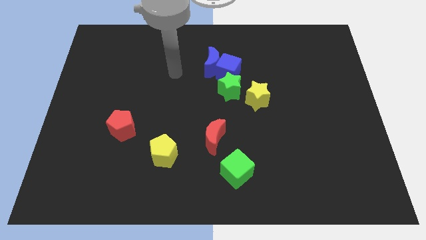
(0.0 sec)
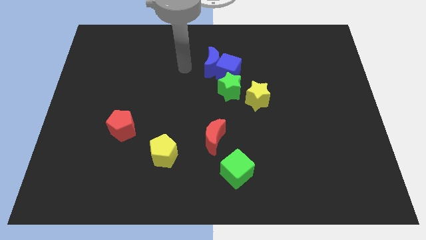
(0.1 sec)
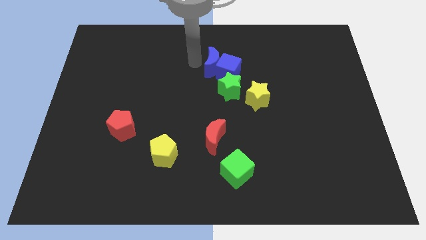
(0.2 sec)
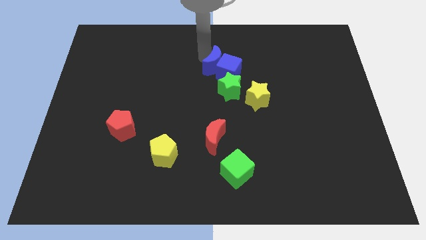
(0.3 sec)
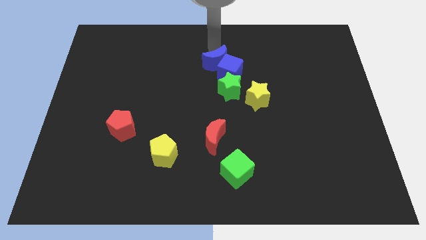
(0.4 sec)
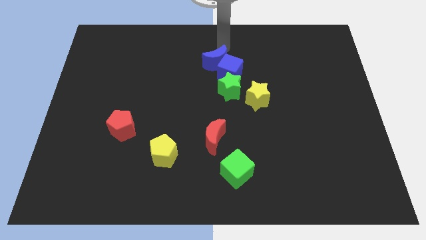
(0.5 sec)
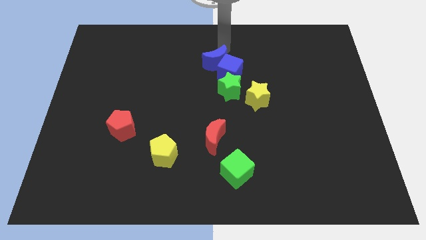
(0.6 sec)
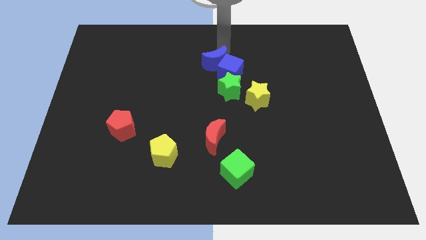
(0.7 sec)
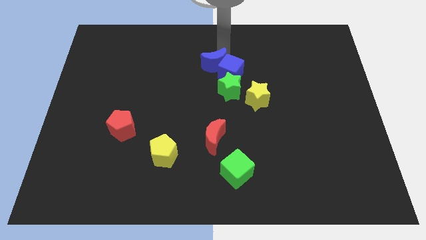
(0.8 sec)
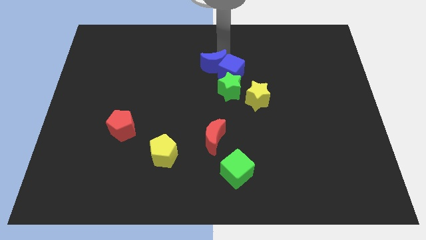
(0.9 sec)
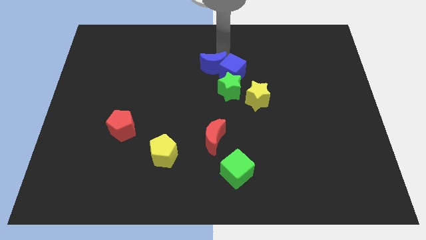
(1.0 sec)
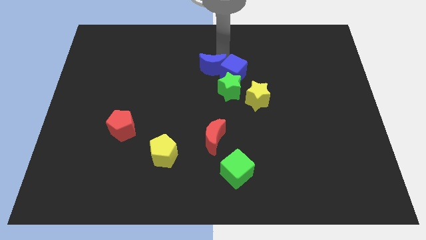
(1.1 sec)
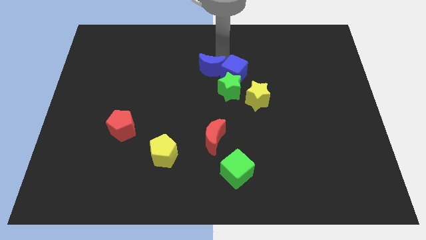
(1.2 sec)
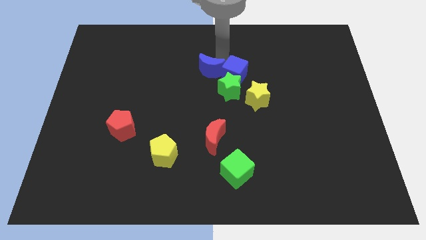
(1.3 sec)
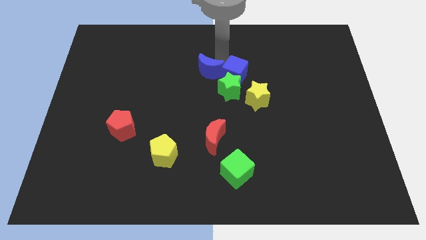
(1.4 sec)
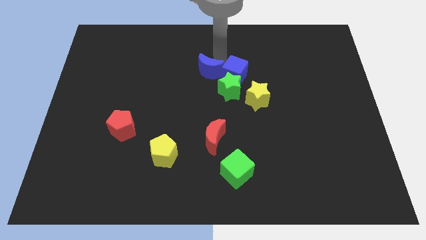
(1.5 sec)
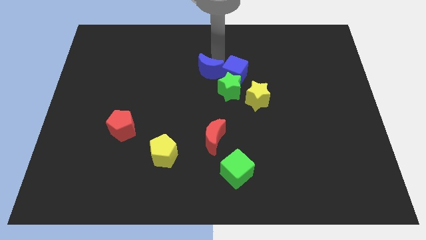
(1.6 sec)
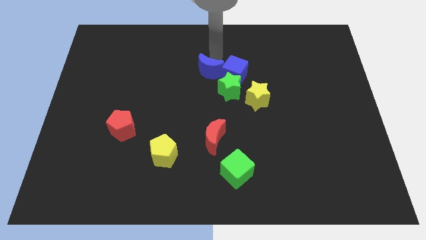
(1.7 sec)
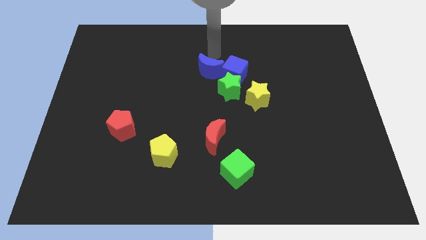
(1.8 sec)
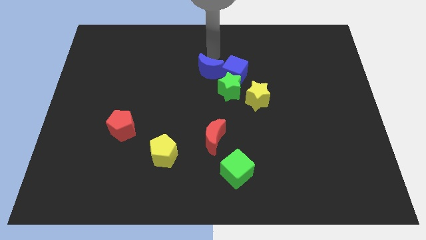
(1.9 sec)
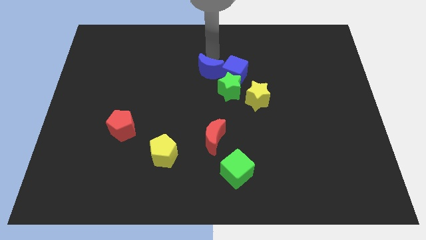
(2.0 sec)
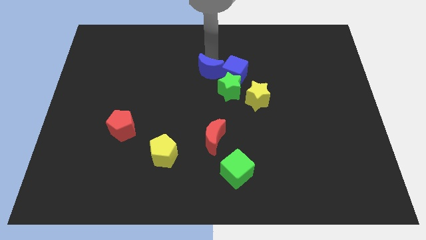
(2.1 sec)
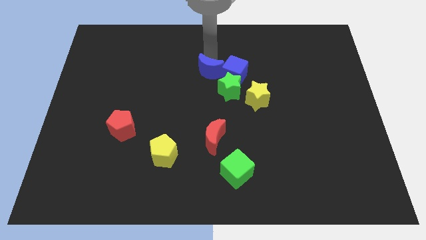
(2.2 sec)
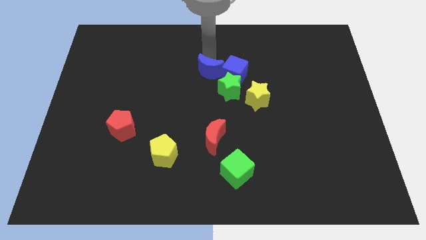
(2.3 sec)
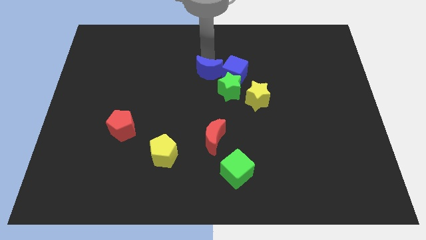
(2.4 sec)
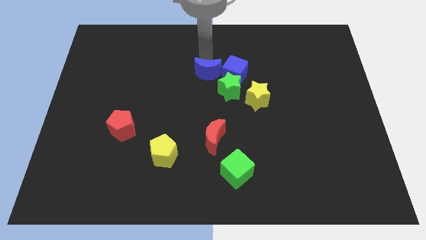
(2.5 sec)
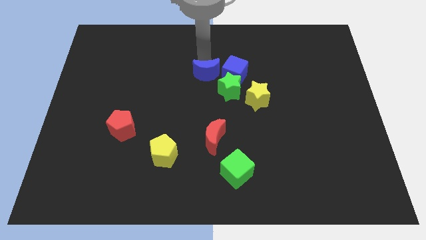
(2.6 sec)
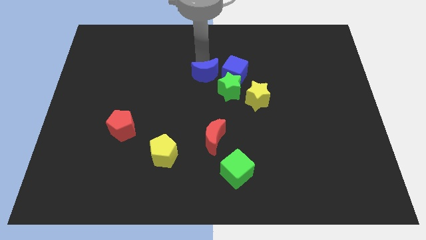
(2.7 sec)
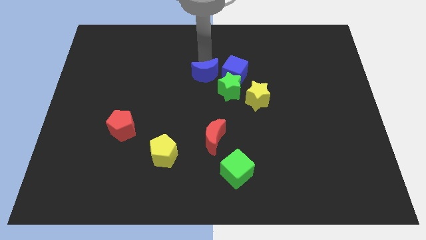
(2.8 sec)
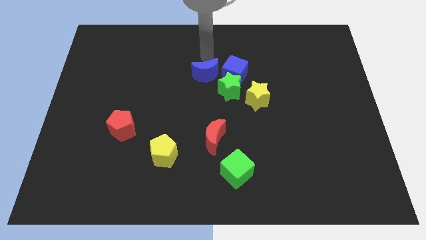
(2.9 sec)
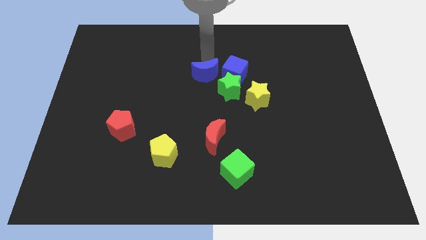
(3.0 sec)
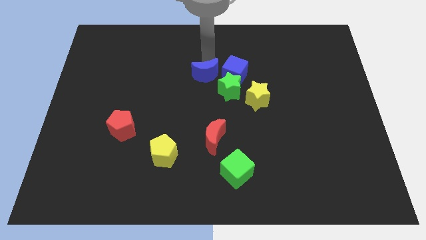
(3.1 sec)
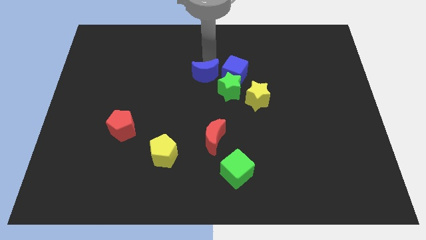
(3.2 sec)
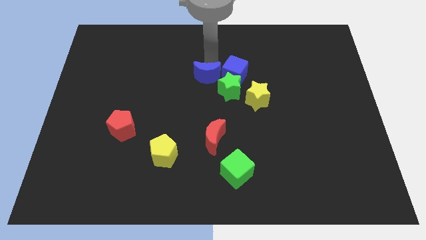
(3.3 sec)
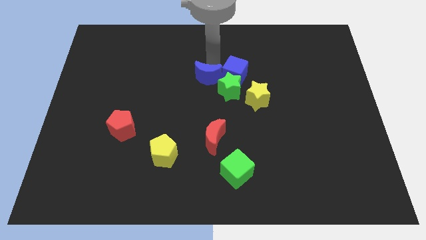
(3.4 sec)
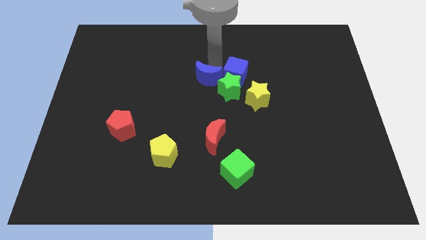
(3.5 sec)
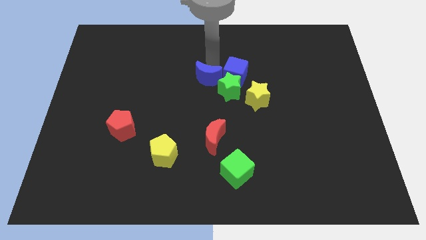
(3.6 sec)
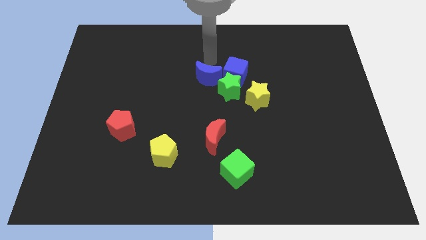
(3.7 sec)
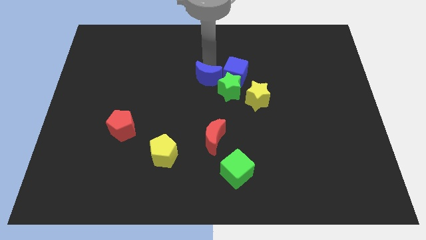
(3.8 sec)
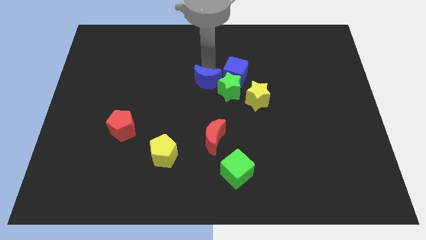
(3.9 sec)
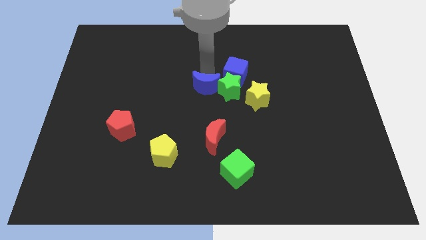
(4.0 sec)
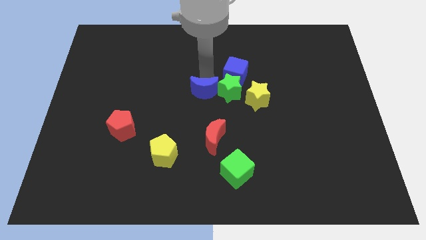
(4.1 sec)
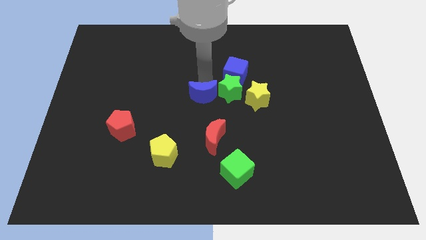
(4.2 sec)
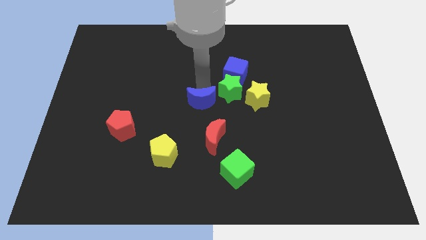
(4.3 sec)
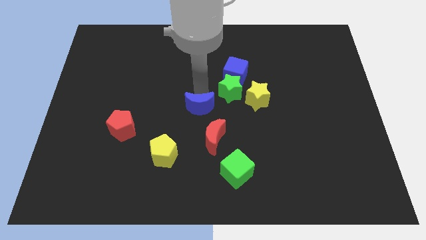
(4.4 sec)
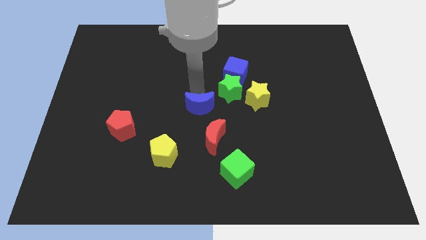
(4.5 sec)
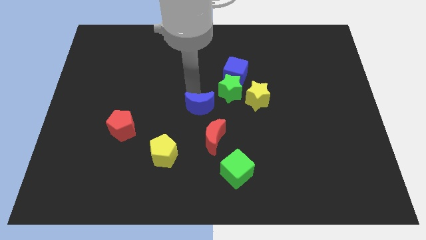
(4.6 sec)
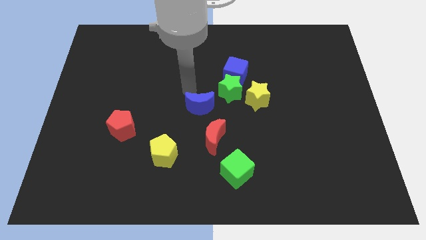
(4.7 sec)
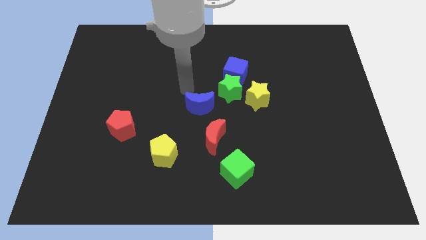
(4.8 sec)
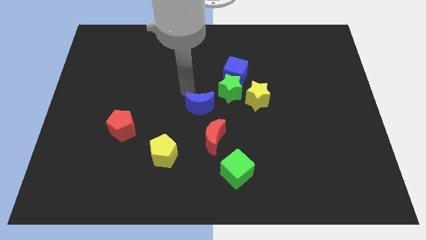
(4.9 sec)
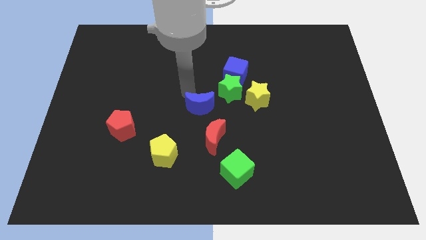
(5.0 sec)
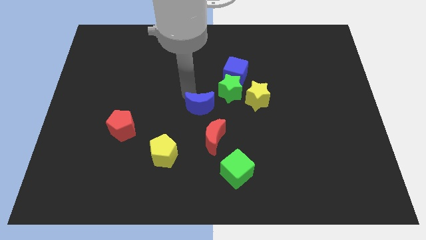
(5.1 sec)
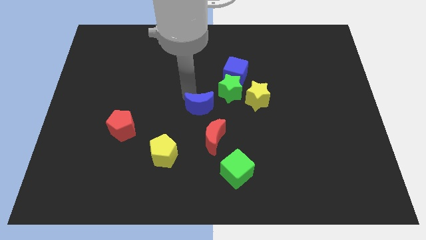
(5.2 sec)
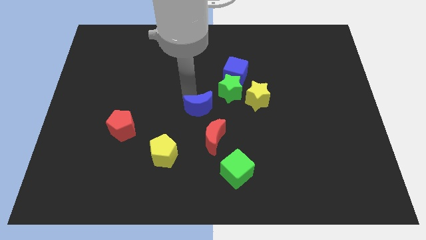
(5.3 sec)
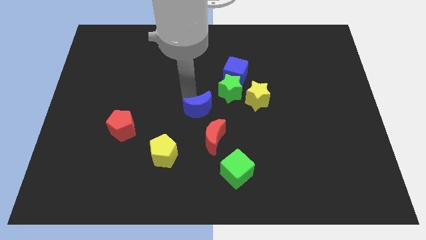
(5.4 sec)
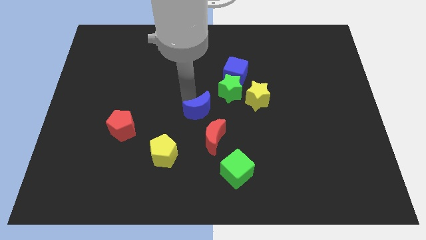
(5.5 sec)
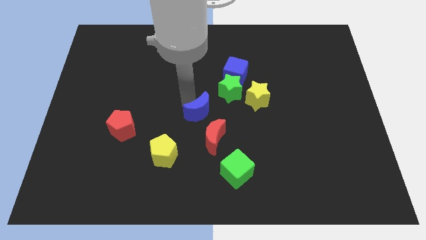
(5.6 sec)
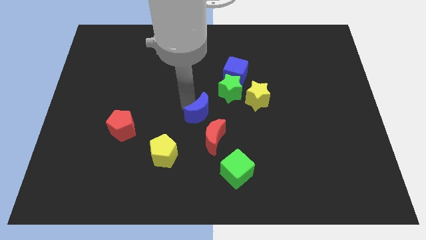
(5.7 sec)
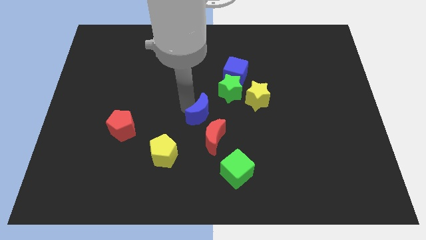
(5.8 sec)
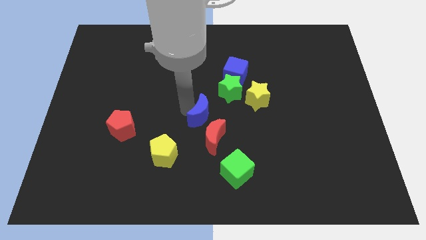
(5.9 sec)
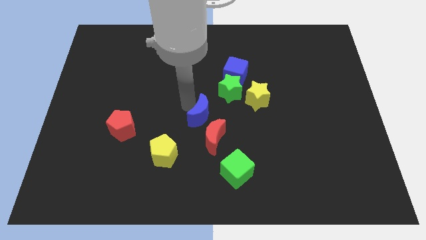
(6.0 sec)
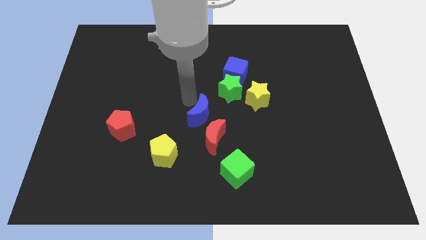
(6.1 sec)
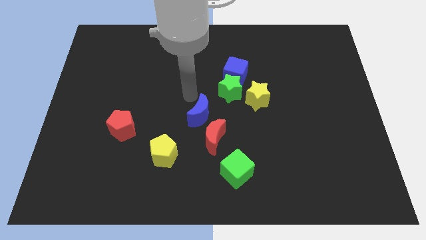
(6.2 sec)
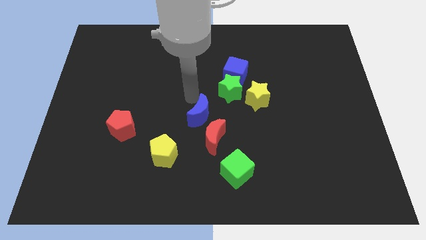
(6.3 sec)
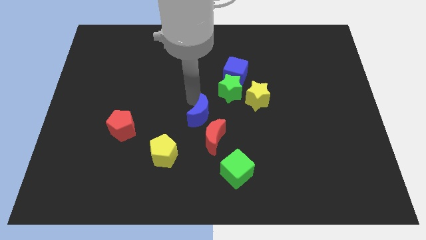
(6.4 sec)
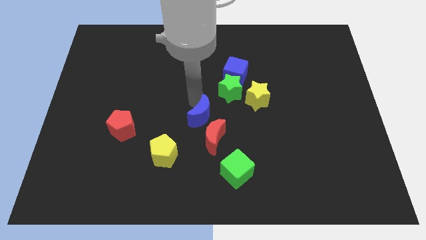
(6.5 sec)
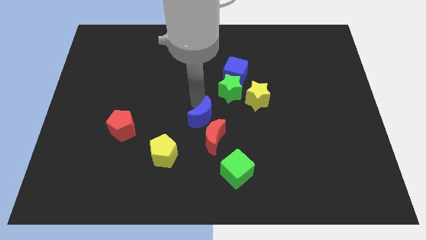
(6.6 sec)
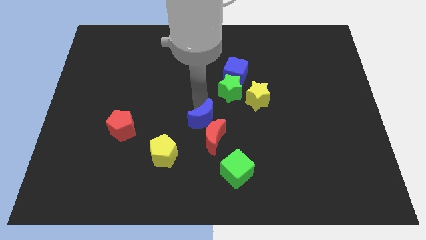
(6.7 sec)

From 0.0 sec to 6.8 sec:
move the blue moon close to the red moon
